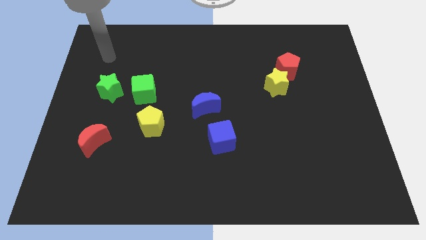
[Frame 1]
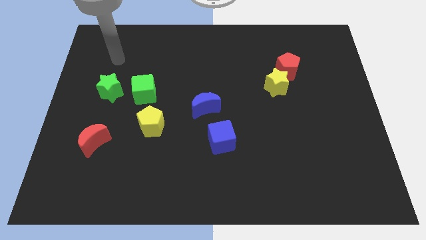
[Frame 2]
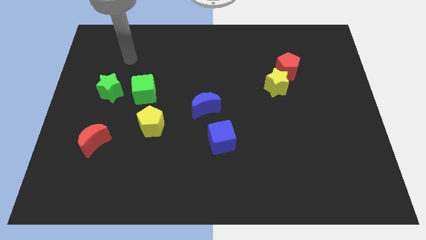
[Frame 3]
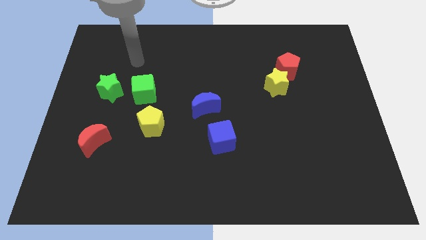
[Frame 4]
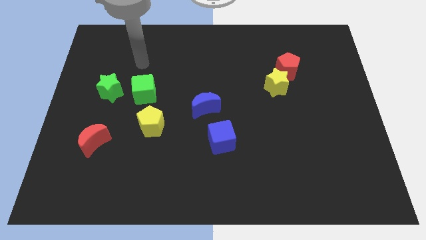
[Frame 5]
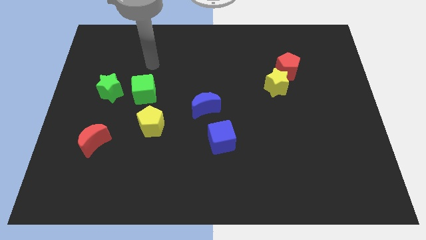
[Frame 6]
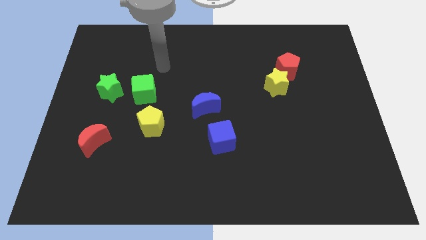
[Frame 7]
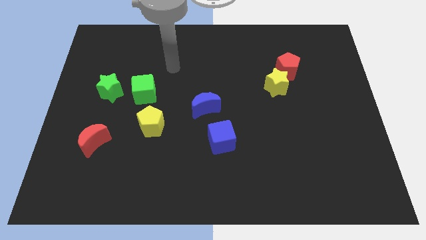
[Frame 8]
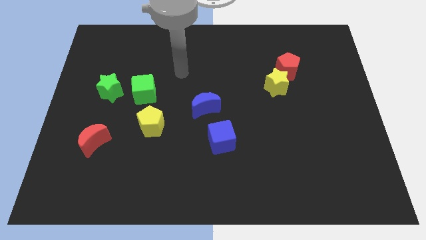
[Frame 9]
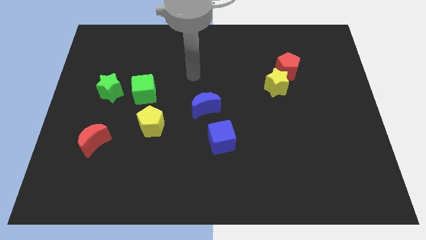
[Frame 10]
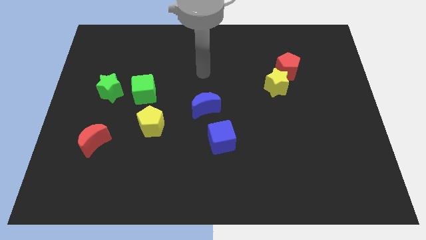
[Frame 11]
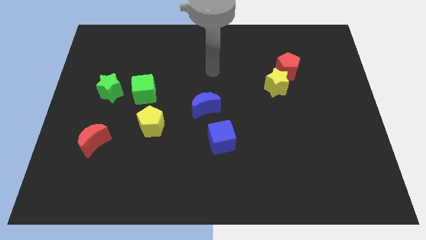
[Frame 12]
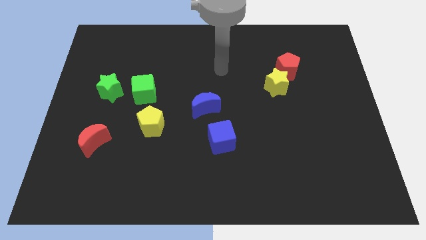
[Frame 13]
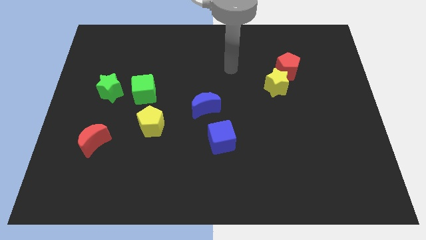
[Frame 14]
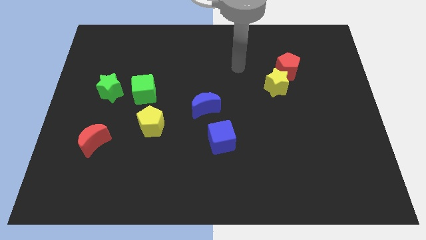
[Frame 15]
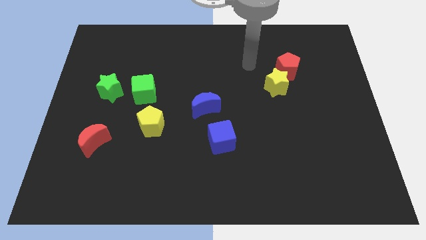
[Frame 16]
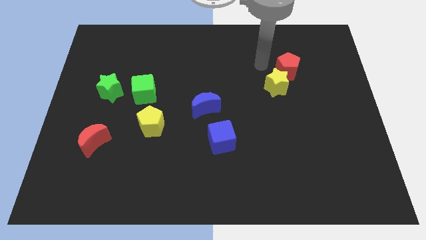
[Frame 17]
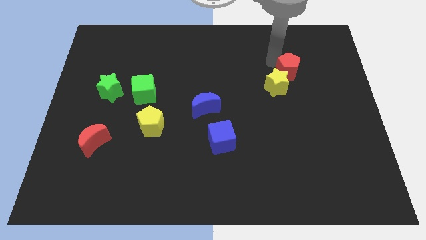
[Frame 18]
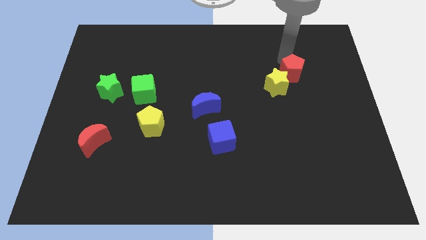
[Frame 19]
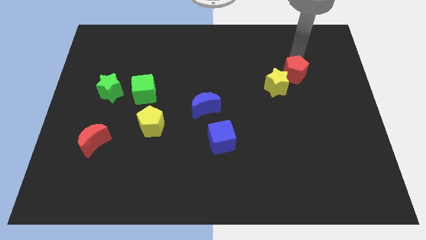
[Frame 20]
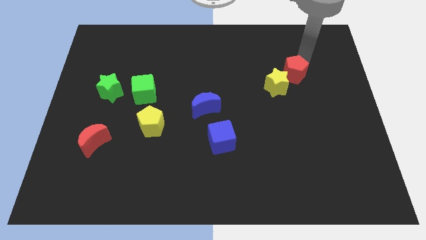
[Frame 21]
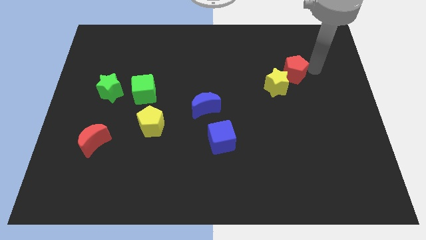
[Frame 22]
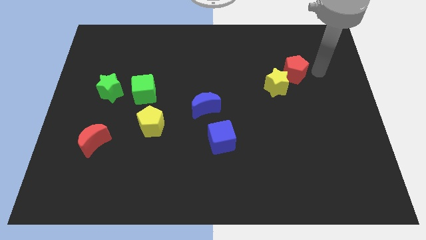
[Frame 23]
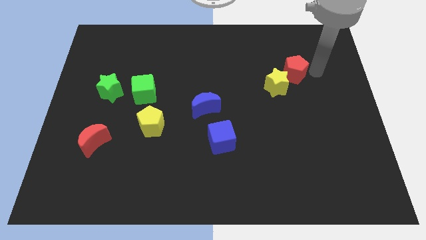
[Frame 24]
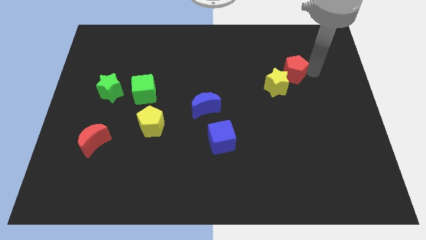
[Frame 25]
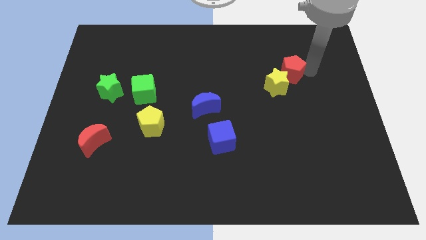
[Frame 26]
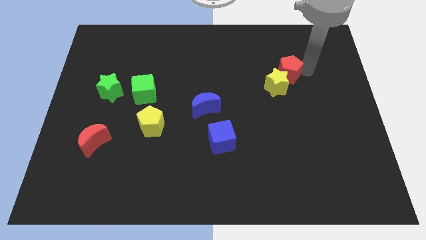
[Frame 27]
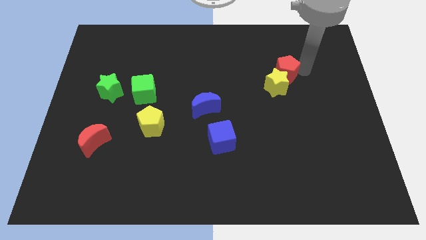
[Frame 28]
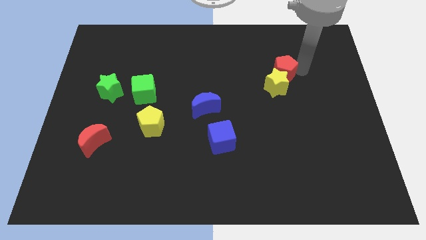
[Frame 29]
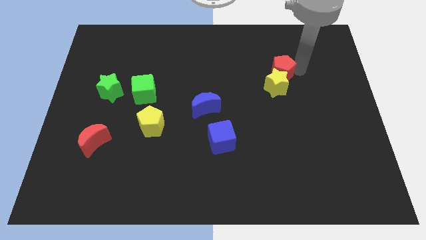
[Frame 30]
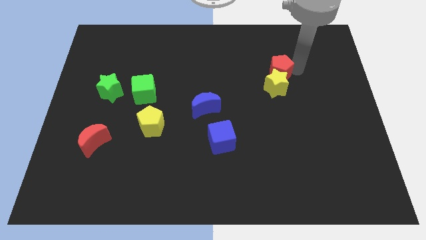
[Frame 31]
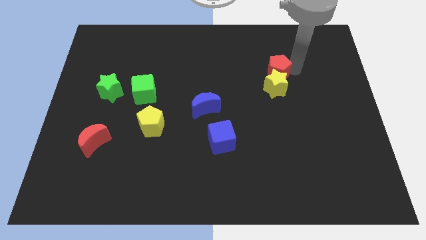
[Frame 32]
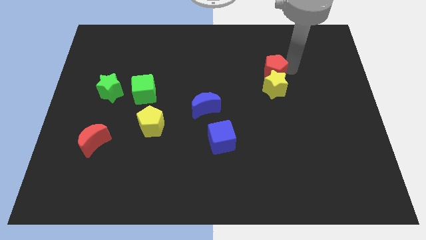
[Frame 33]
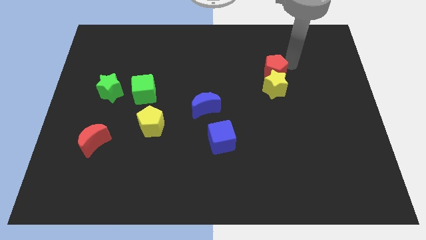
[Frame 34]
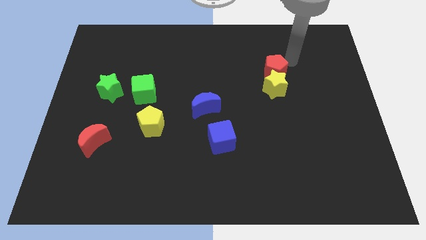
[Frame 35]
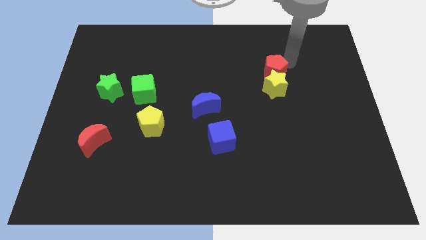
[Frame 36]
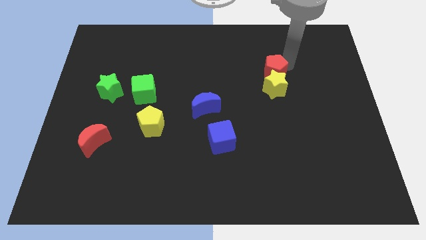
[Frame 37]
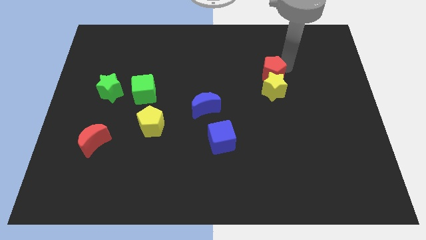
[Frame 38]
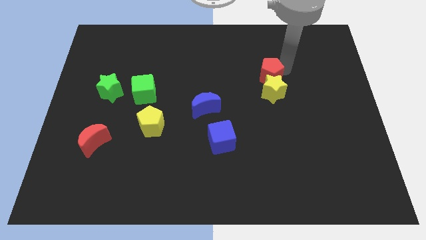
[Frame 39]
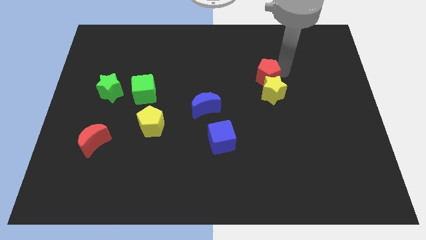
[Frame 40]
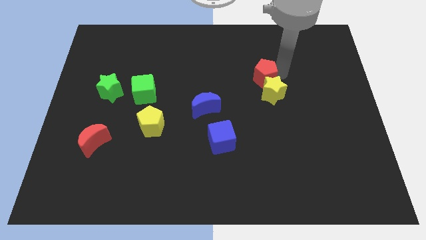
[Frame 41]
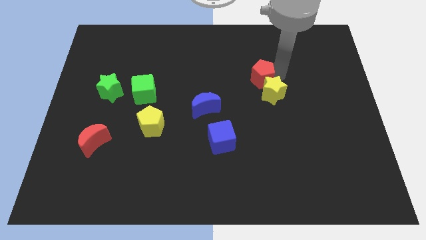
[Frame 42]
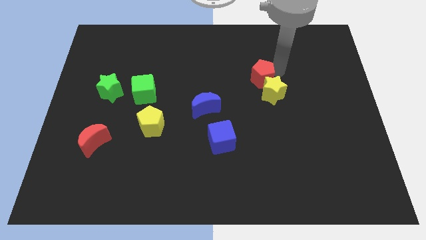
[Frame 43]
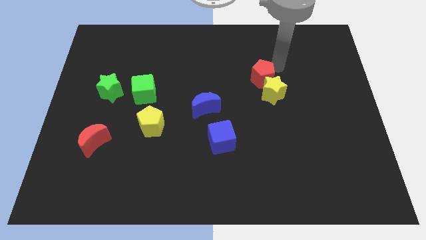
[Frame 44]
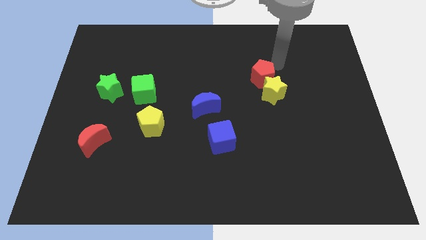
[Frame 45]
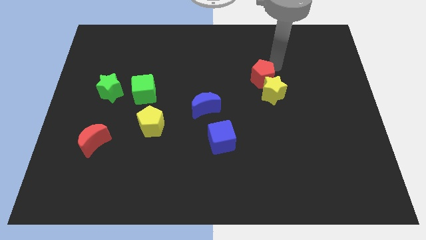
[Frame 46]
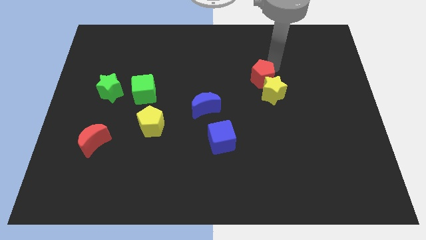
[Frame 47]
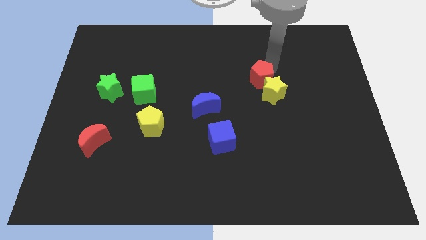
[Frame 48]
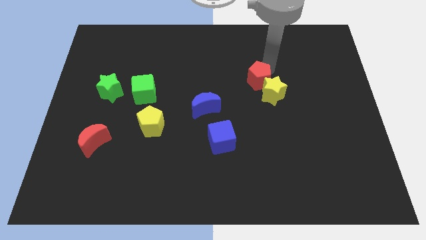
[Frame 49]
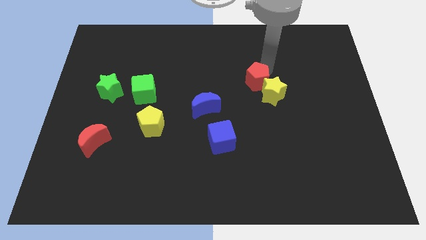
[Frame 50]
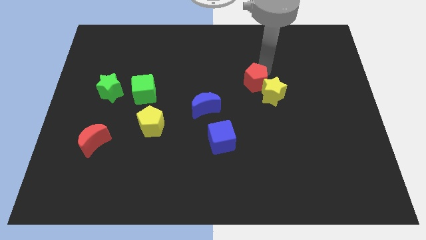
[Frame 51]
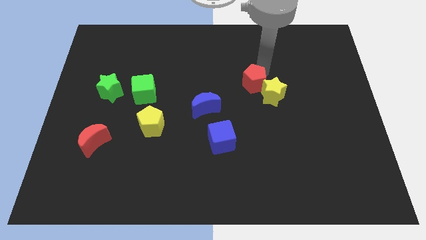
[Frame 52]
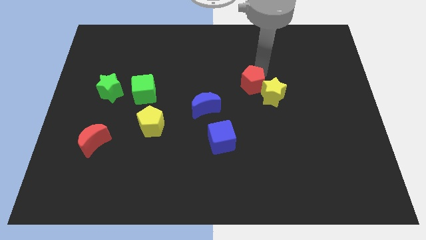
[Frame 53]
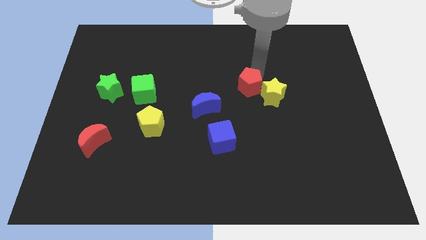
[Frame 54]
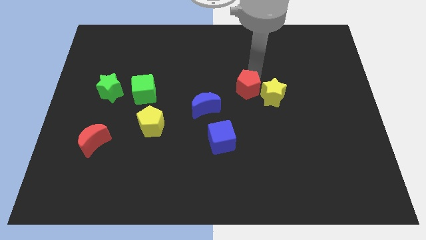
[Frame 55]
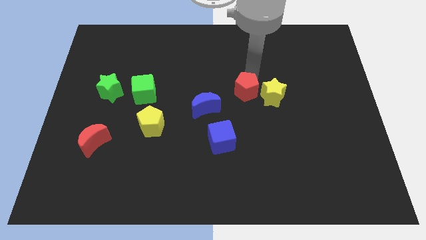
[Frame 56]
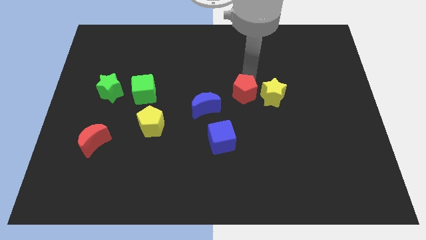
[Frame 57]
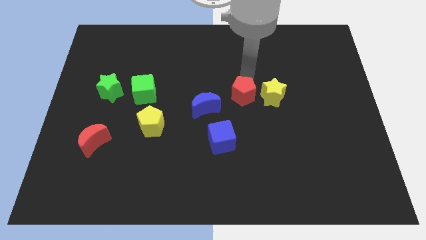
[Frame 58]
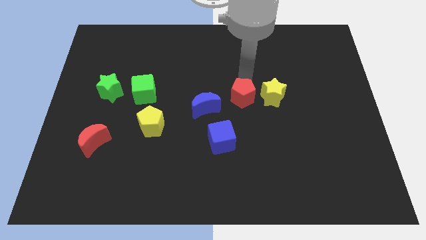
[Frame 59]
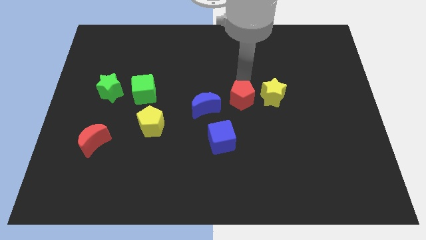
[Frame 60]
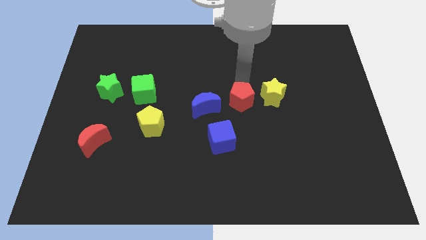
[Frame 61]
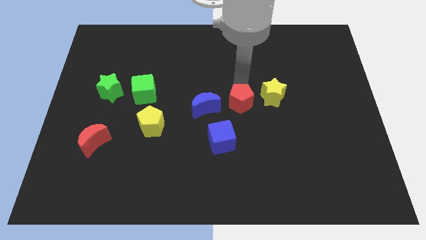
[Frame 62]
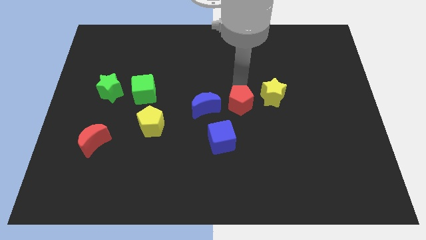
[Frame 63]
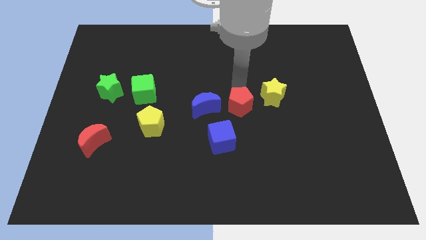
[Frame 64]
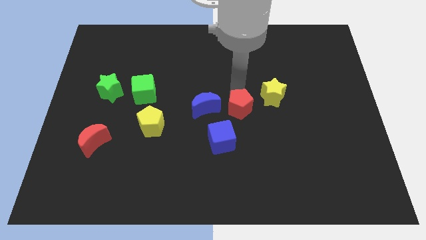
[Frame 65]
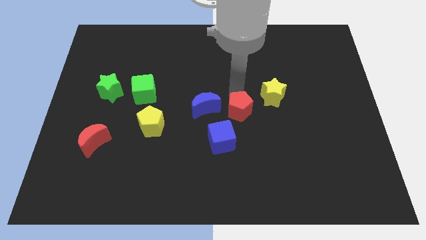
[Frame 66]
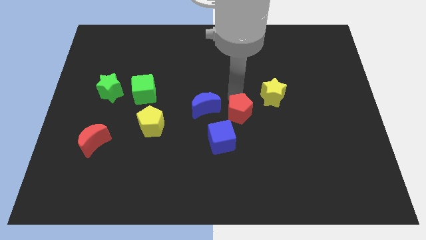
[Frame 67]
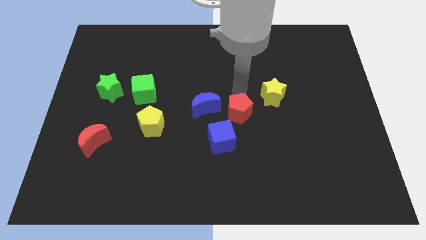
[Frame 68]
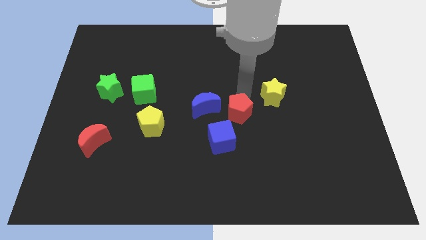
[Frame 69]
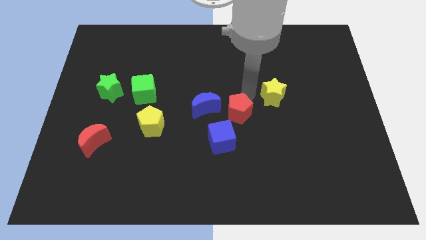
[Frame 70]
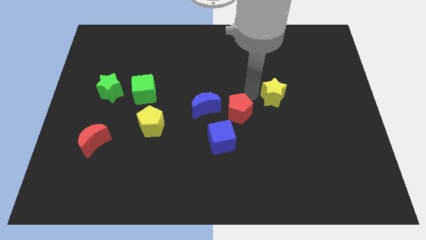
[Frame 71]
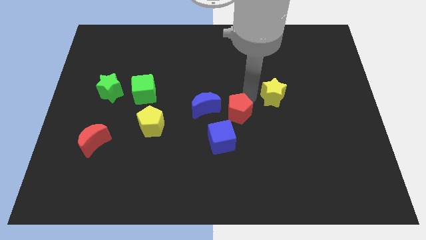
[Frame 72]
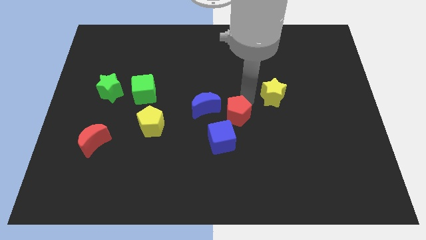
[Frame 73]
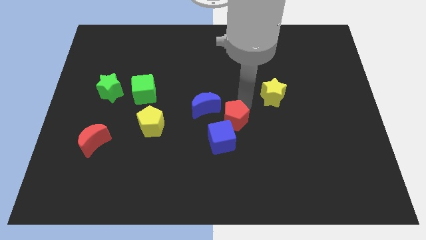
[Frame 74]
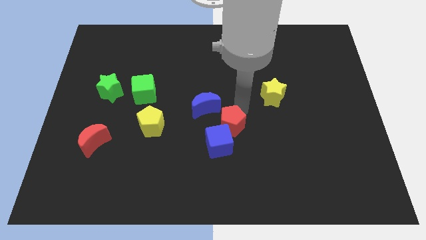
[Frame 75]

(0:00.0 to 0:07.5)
move the red pentagon to the blue cube
